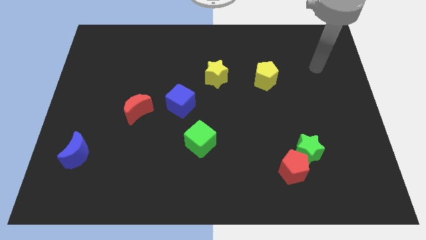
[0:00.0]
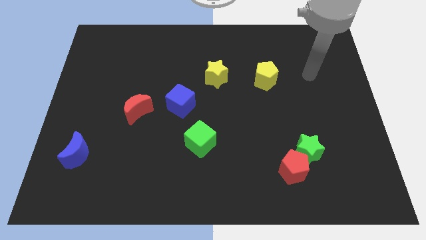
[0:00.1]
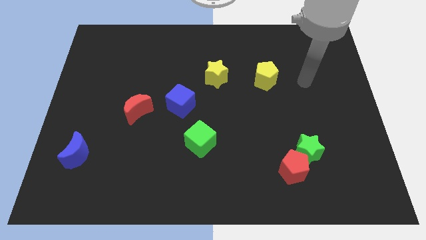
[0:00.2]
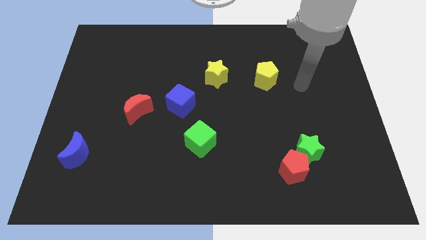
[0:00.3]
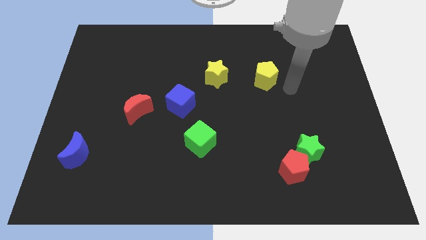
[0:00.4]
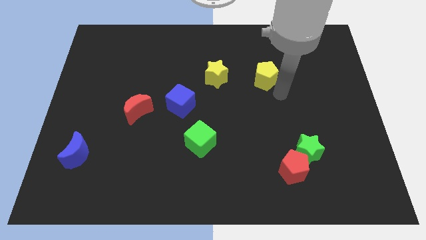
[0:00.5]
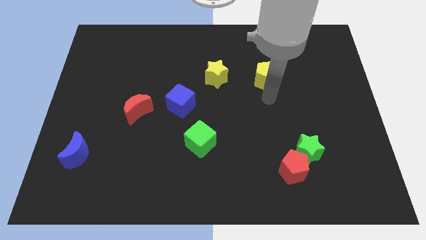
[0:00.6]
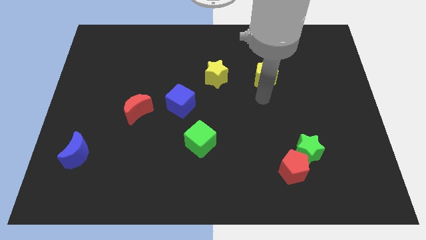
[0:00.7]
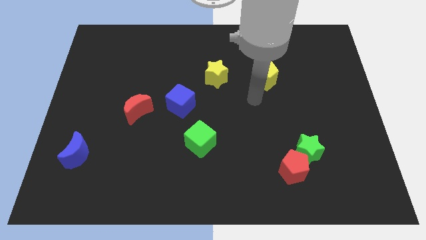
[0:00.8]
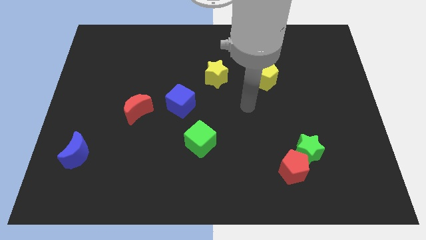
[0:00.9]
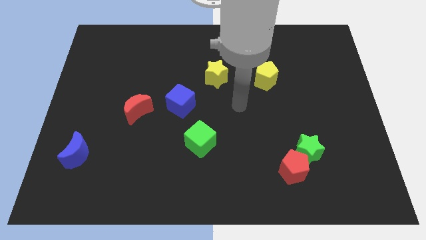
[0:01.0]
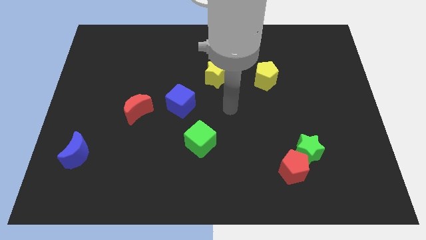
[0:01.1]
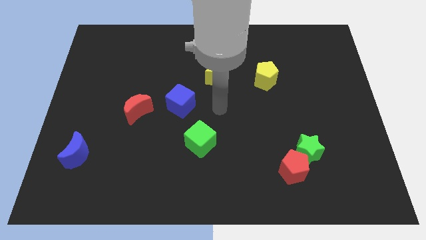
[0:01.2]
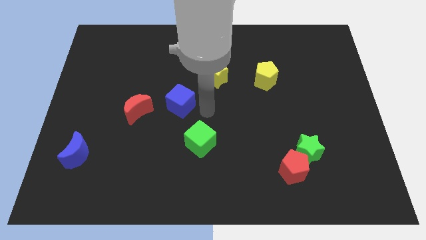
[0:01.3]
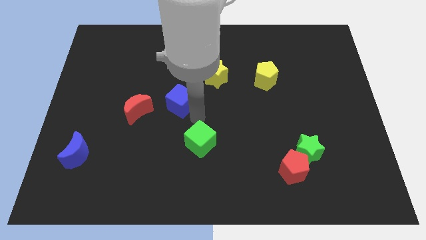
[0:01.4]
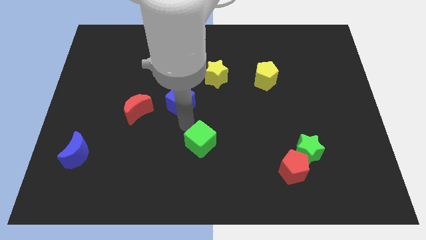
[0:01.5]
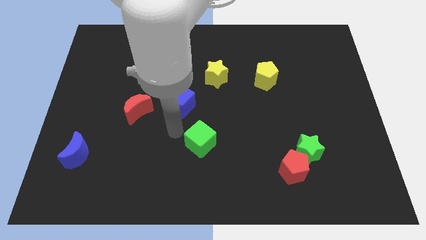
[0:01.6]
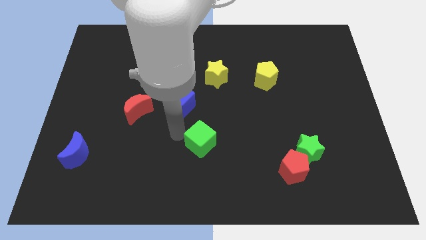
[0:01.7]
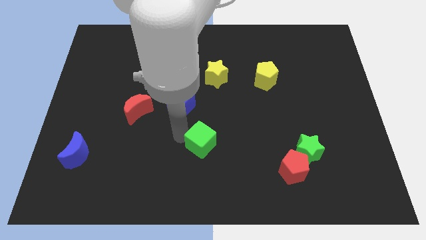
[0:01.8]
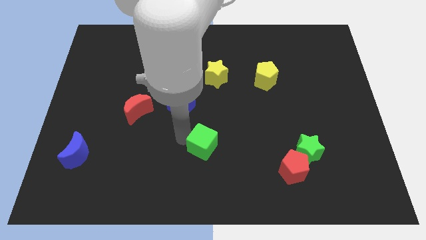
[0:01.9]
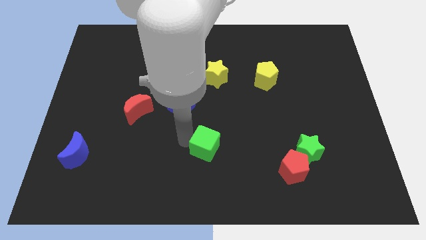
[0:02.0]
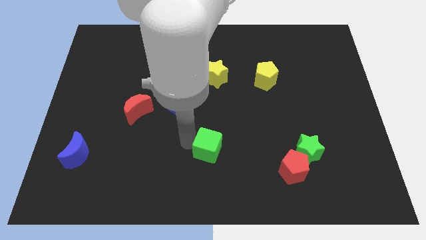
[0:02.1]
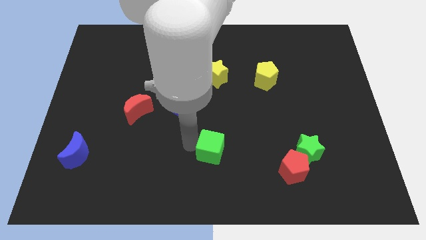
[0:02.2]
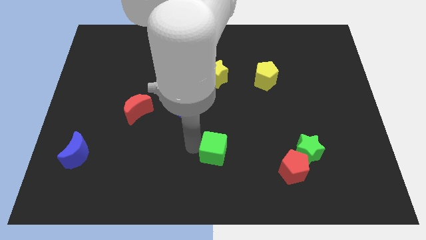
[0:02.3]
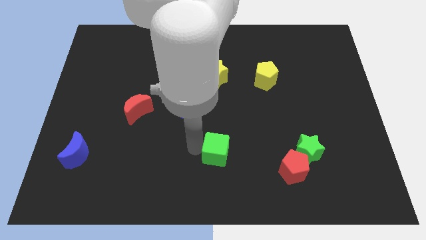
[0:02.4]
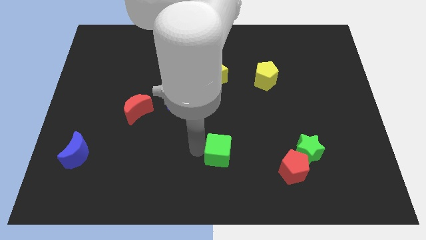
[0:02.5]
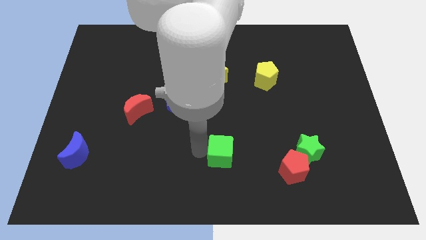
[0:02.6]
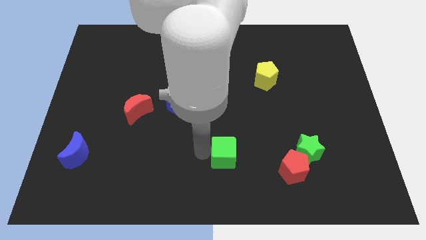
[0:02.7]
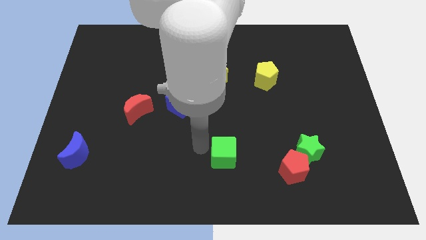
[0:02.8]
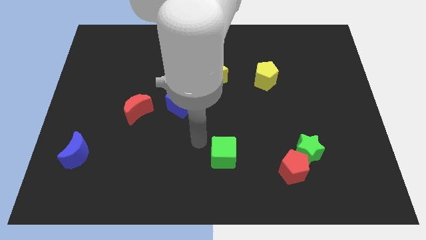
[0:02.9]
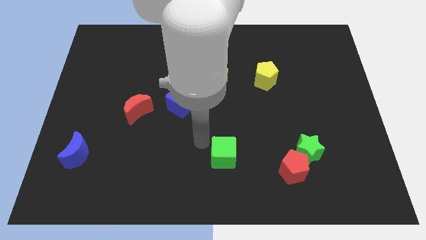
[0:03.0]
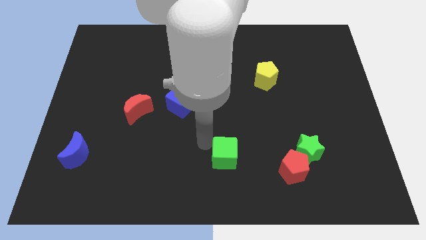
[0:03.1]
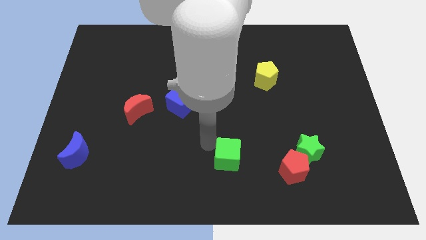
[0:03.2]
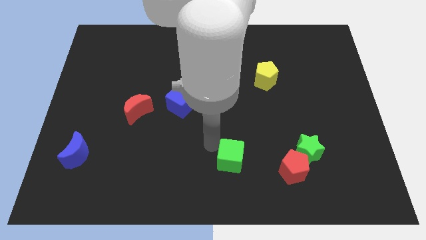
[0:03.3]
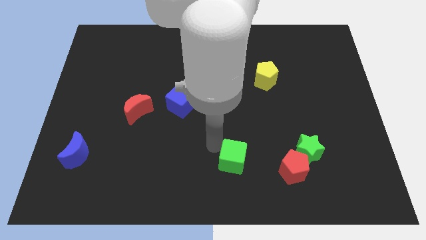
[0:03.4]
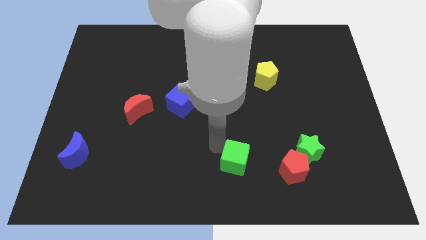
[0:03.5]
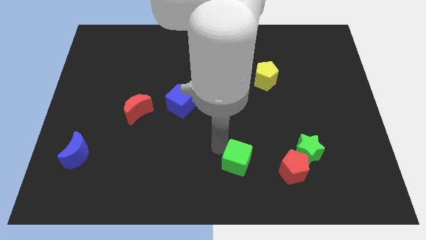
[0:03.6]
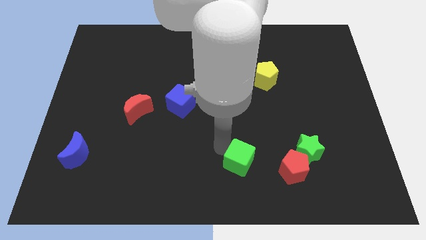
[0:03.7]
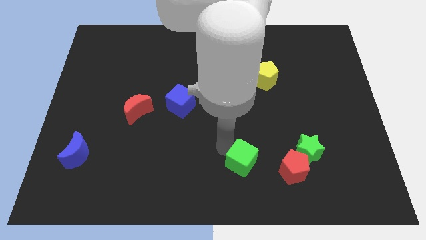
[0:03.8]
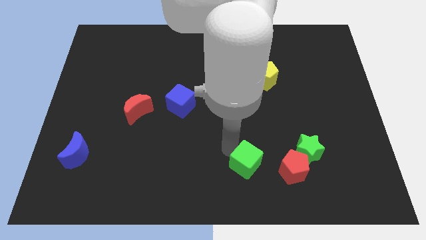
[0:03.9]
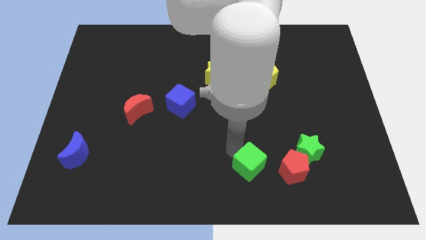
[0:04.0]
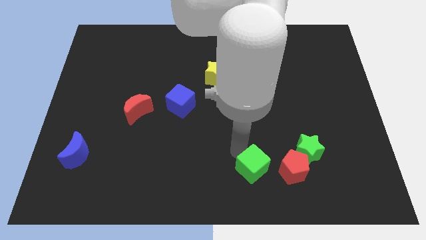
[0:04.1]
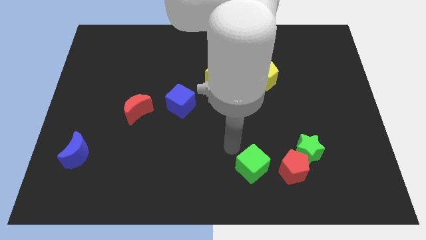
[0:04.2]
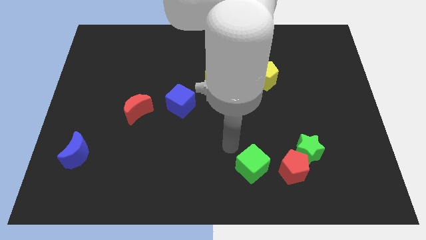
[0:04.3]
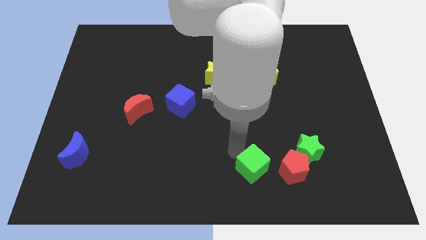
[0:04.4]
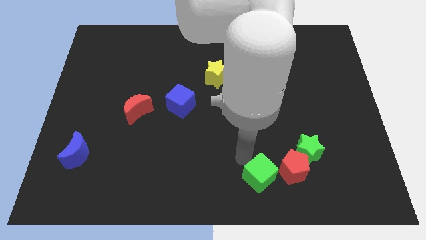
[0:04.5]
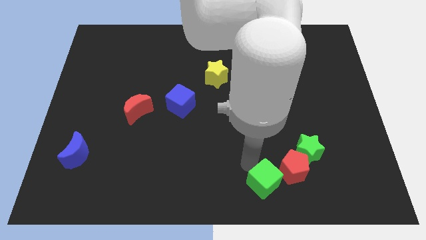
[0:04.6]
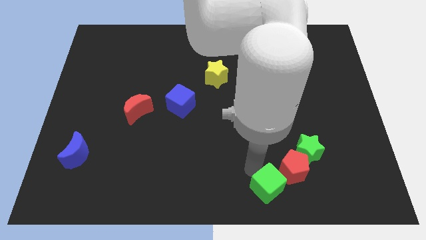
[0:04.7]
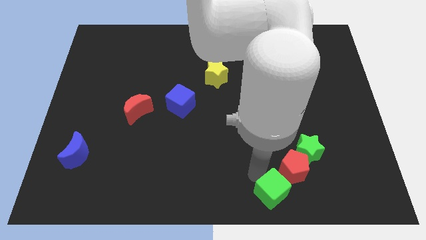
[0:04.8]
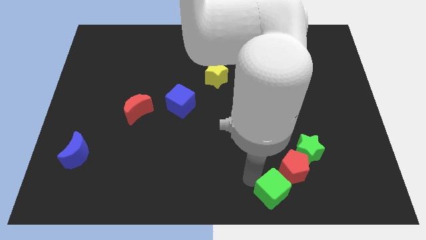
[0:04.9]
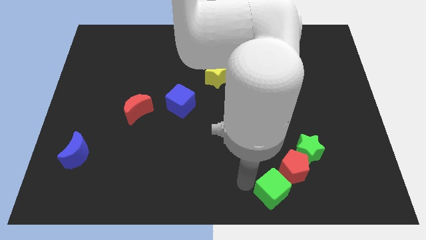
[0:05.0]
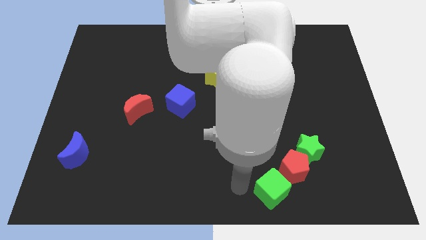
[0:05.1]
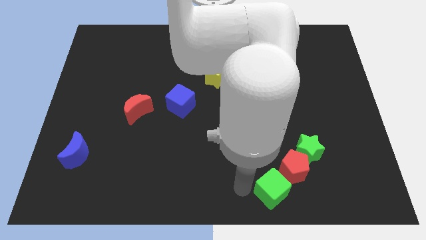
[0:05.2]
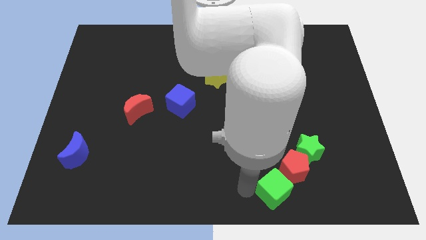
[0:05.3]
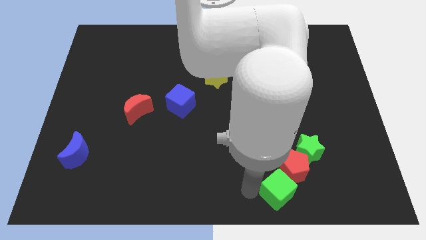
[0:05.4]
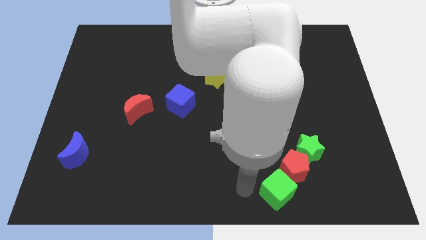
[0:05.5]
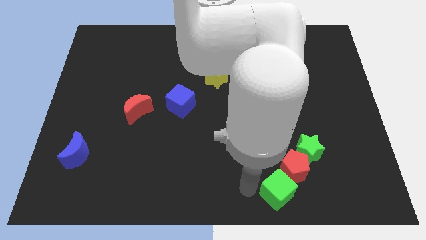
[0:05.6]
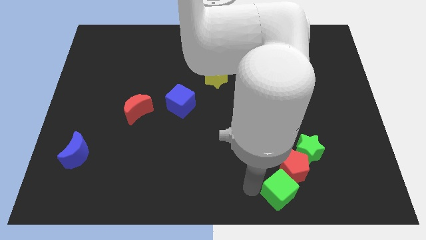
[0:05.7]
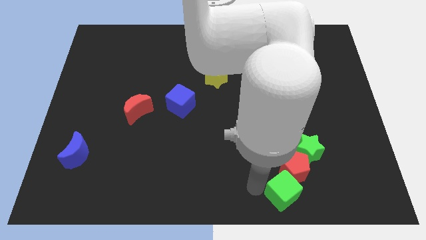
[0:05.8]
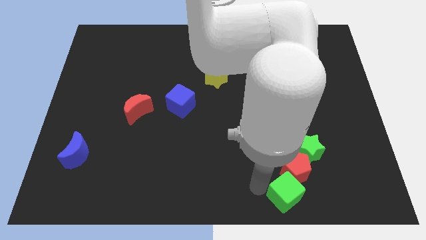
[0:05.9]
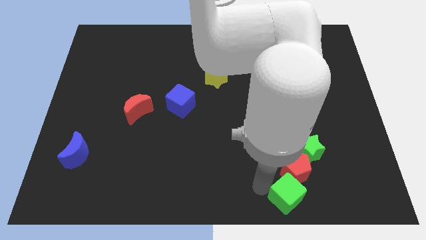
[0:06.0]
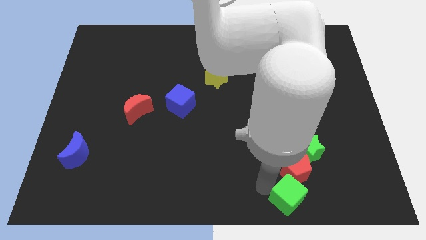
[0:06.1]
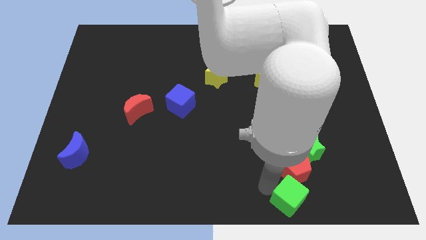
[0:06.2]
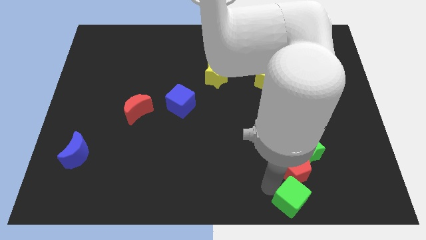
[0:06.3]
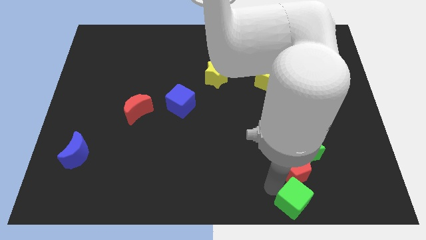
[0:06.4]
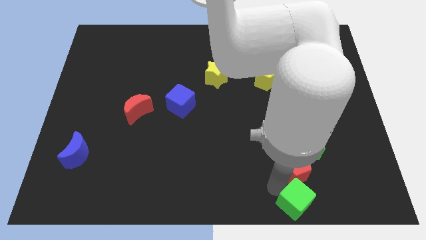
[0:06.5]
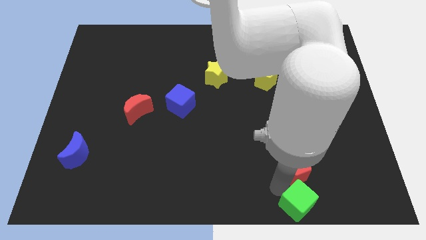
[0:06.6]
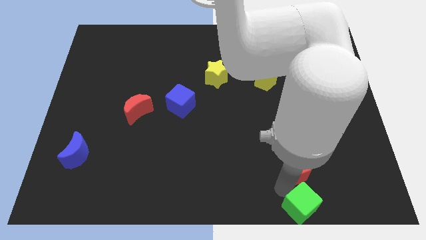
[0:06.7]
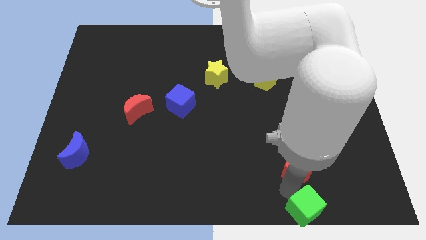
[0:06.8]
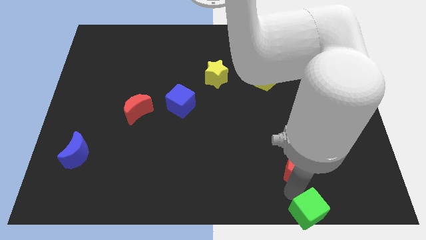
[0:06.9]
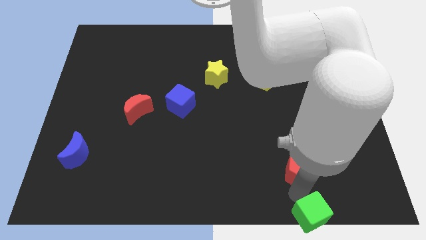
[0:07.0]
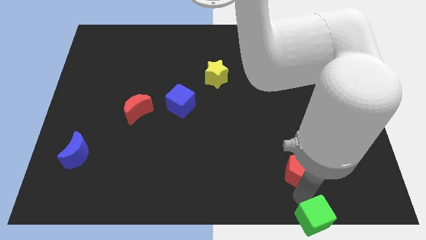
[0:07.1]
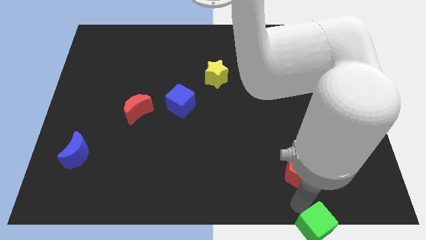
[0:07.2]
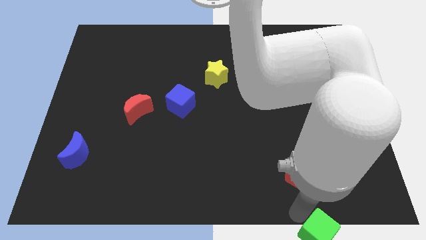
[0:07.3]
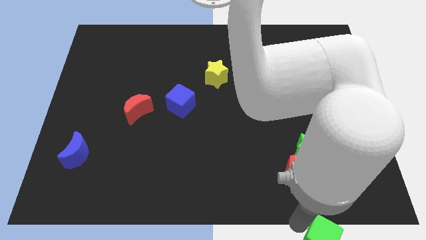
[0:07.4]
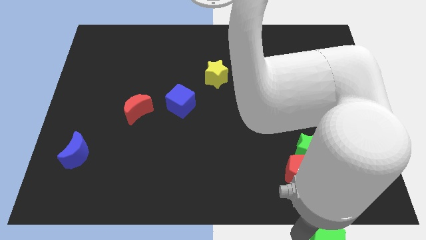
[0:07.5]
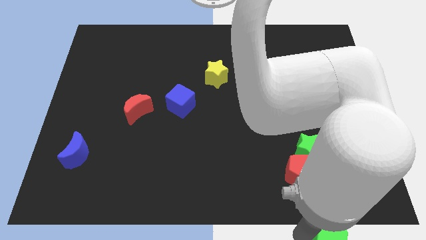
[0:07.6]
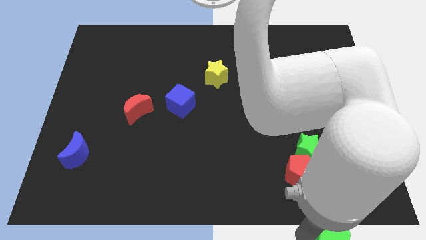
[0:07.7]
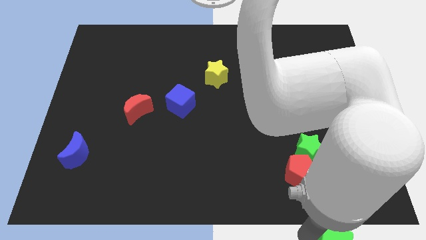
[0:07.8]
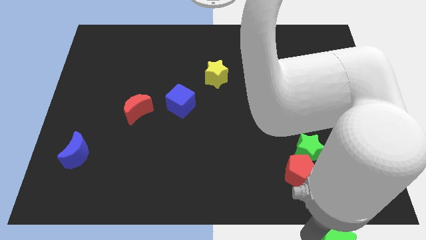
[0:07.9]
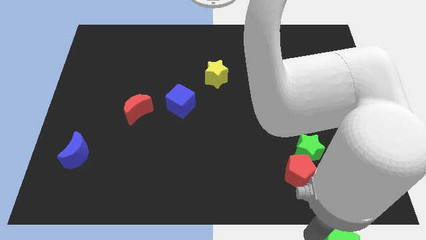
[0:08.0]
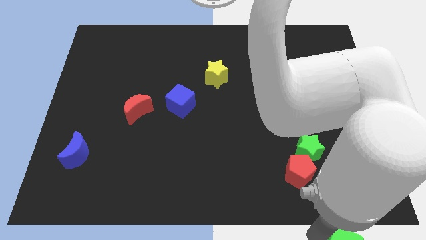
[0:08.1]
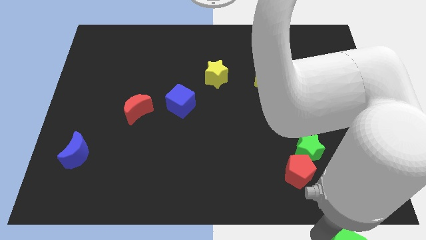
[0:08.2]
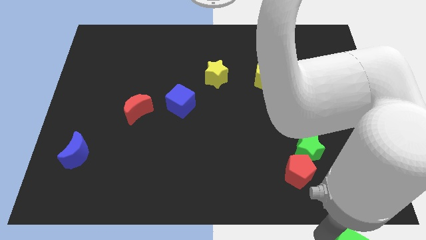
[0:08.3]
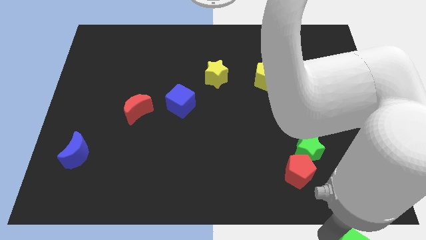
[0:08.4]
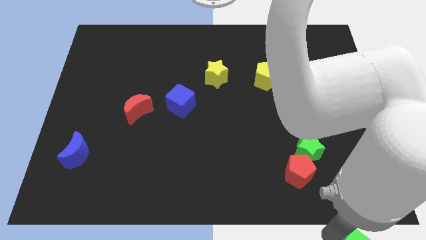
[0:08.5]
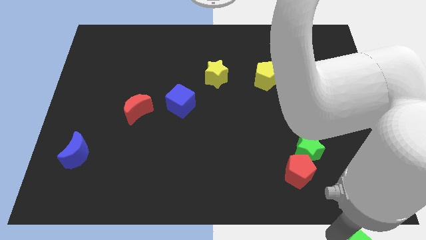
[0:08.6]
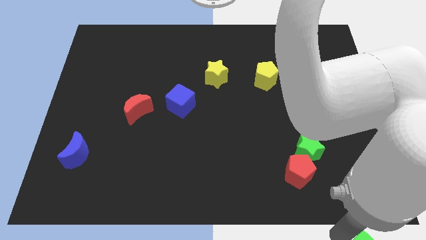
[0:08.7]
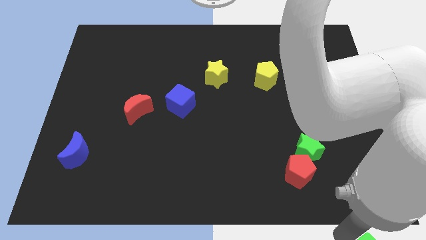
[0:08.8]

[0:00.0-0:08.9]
push the green cube to the bottom right corner
